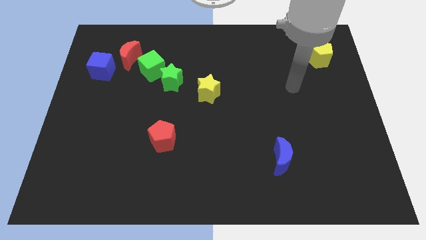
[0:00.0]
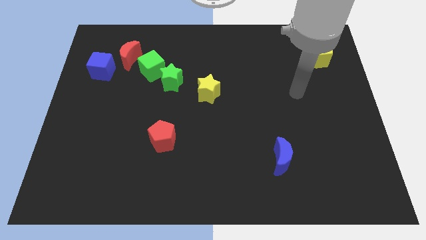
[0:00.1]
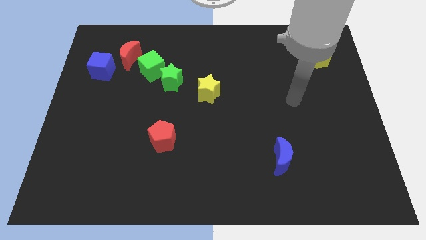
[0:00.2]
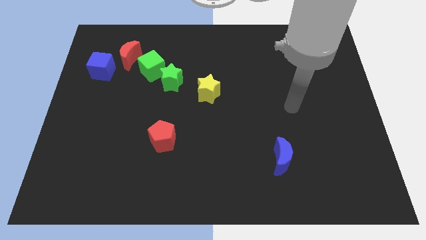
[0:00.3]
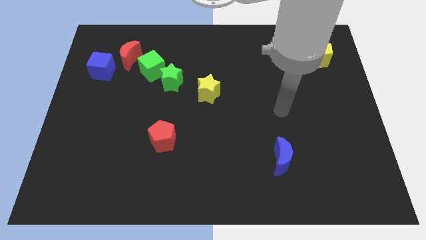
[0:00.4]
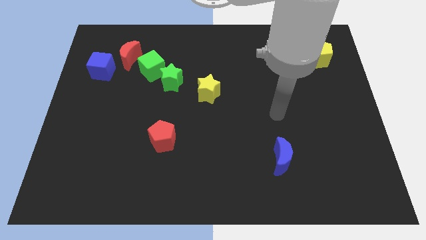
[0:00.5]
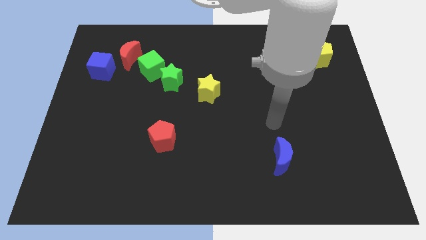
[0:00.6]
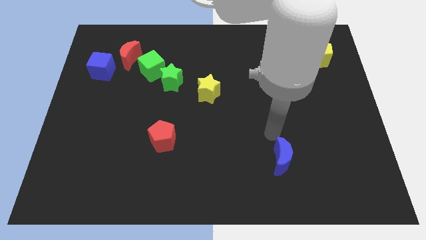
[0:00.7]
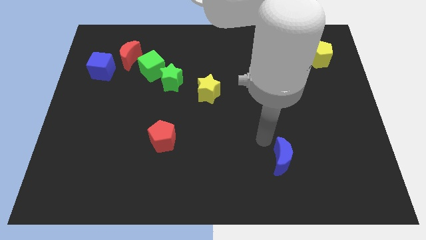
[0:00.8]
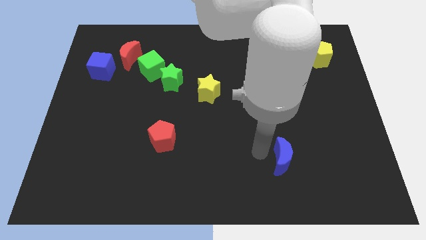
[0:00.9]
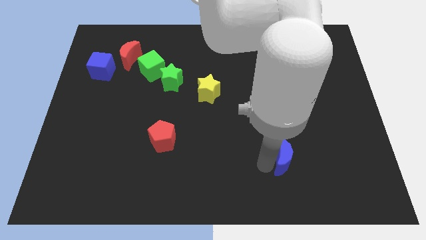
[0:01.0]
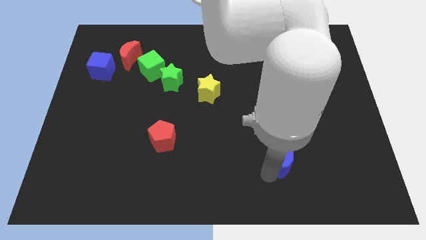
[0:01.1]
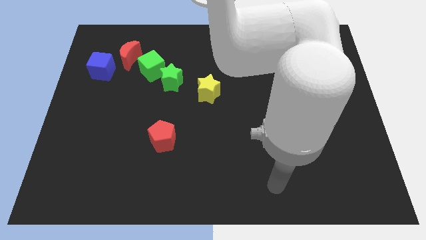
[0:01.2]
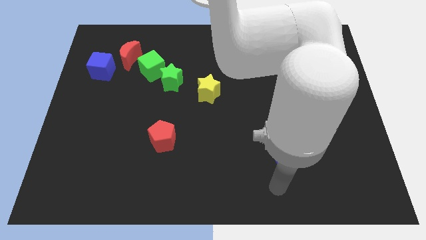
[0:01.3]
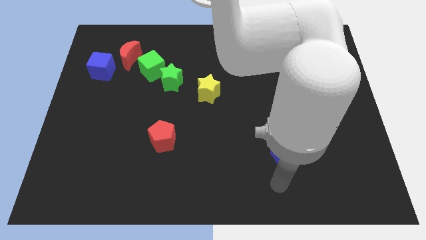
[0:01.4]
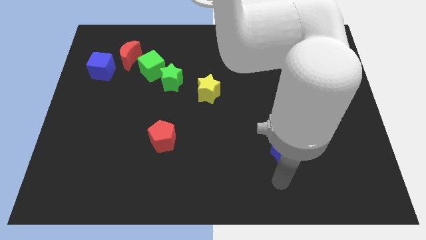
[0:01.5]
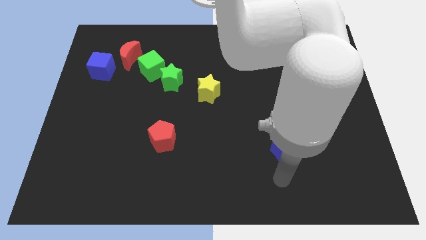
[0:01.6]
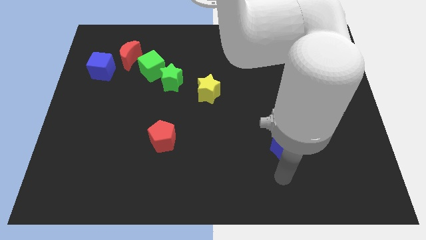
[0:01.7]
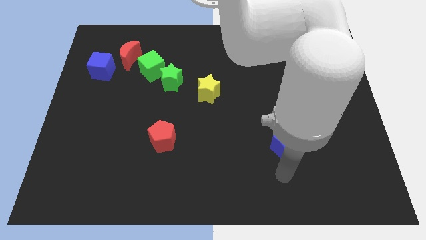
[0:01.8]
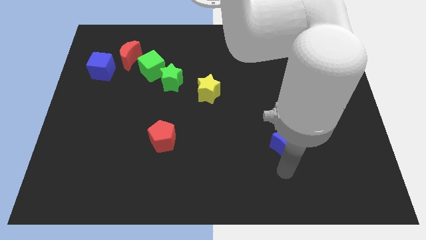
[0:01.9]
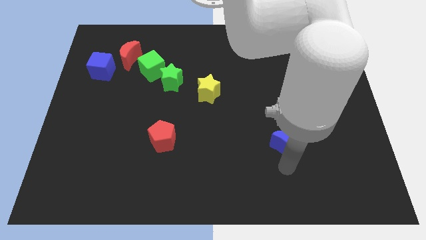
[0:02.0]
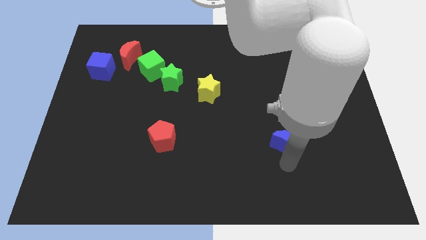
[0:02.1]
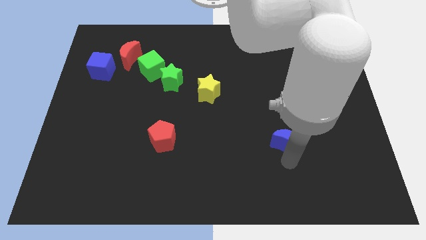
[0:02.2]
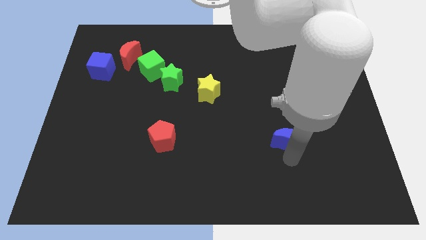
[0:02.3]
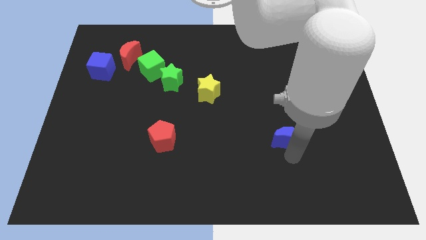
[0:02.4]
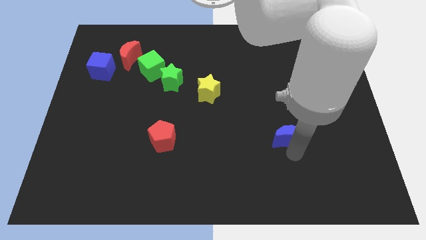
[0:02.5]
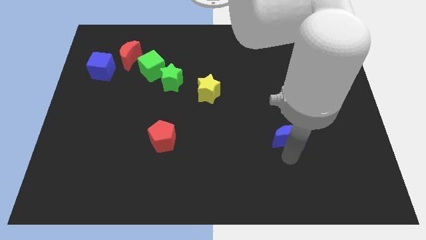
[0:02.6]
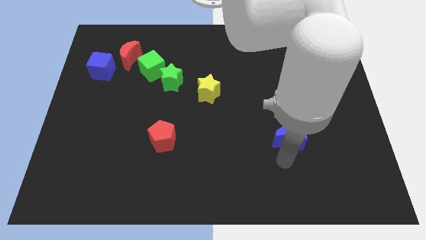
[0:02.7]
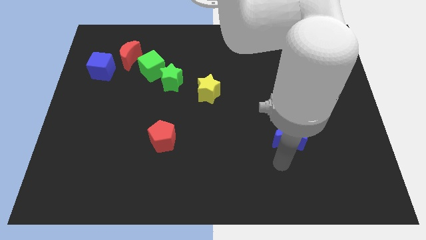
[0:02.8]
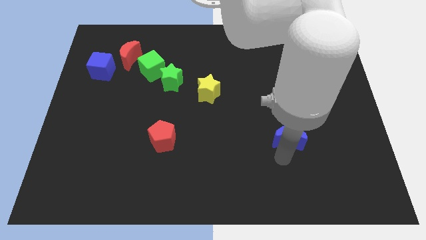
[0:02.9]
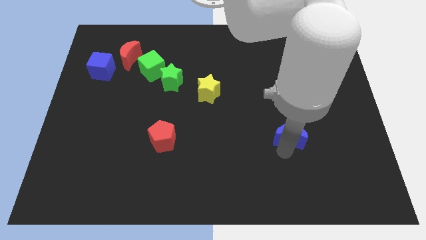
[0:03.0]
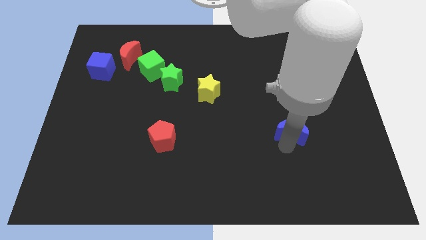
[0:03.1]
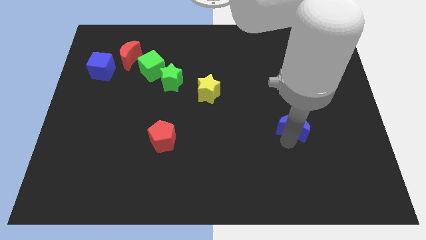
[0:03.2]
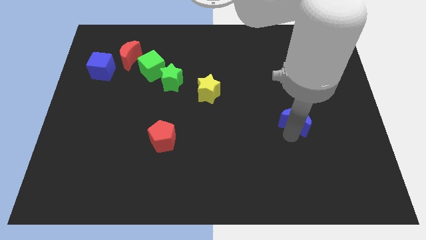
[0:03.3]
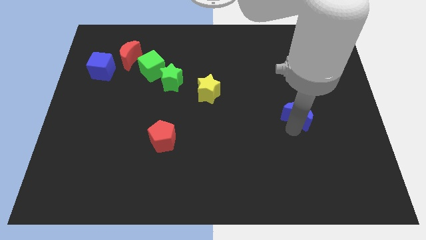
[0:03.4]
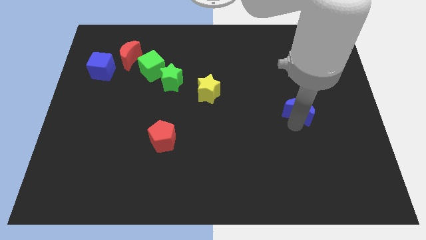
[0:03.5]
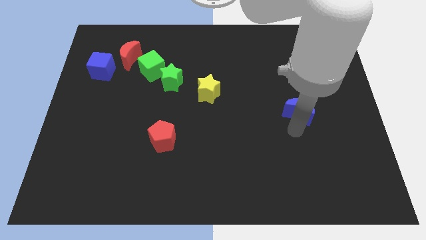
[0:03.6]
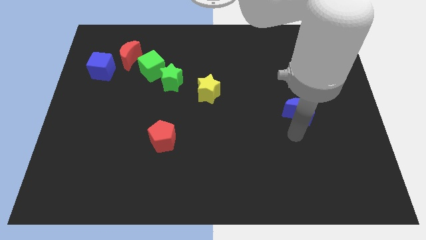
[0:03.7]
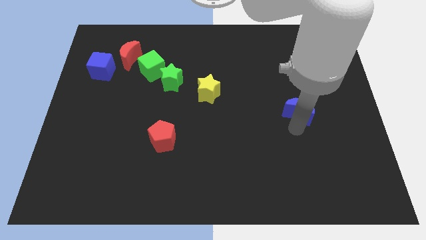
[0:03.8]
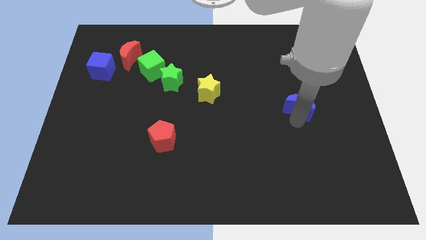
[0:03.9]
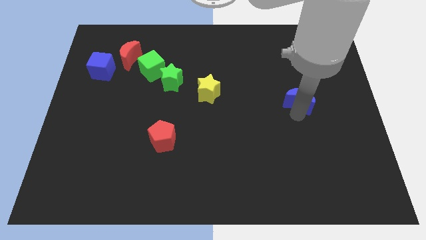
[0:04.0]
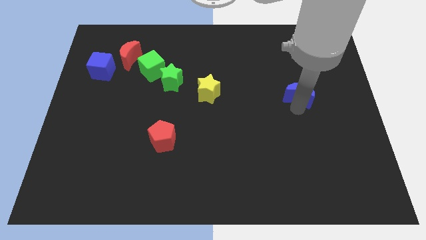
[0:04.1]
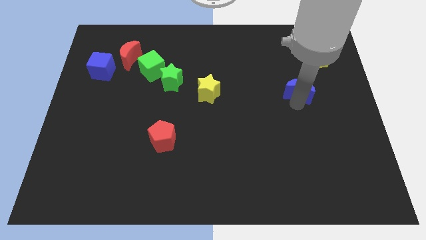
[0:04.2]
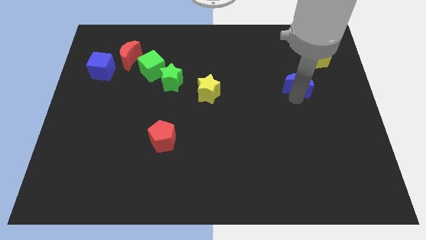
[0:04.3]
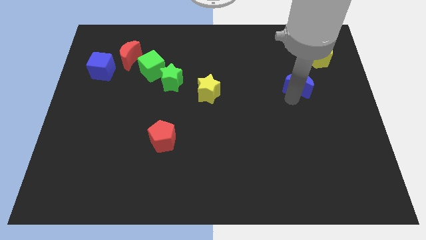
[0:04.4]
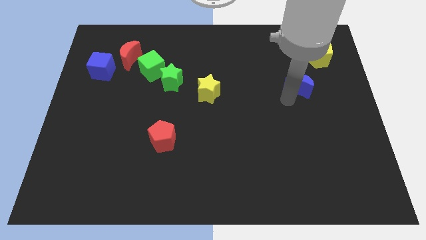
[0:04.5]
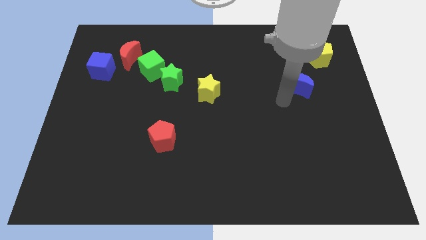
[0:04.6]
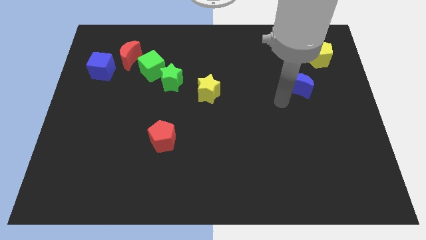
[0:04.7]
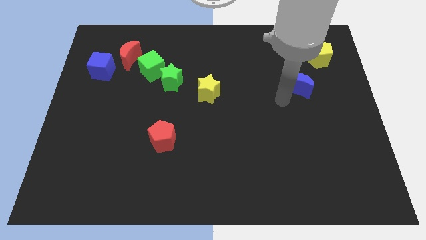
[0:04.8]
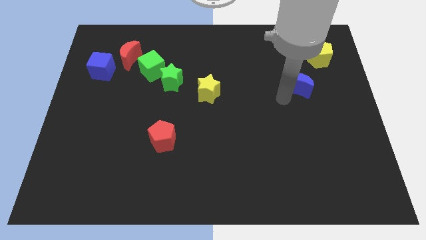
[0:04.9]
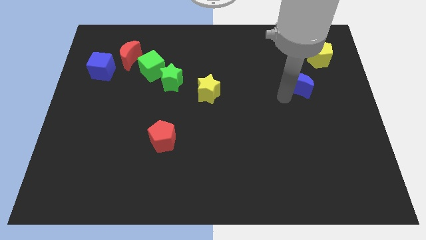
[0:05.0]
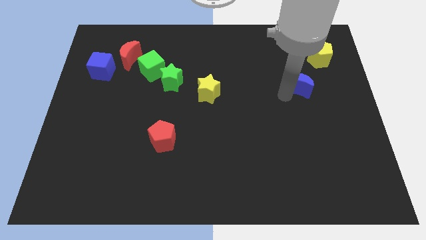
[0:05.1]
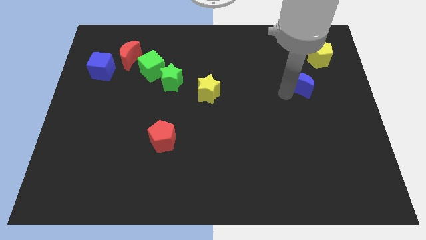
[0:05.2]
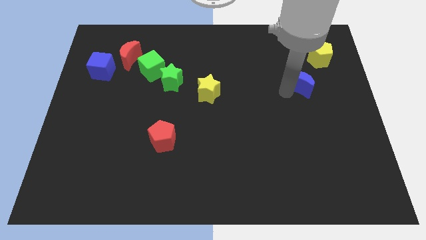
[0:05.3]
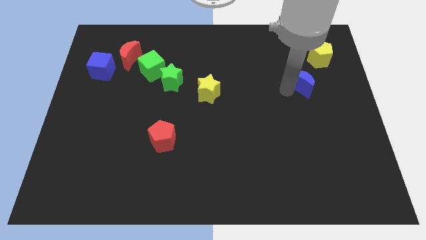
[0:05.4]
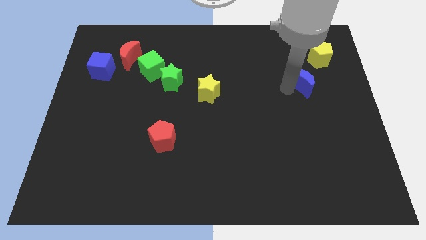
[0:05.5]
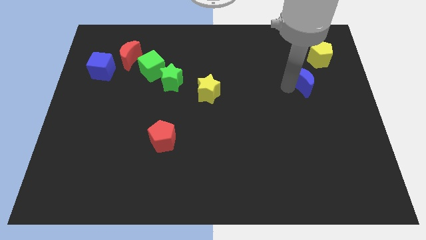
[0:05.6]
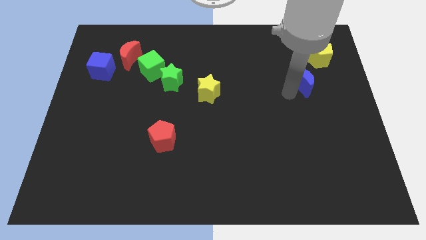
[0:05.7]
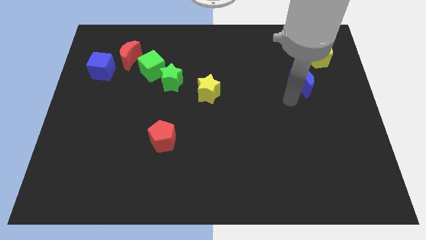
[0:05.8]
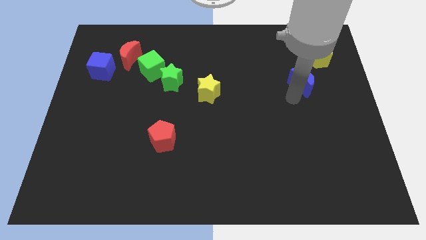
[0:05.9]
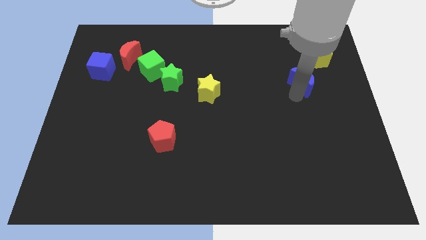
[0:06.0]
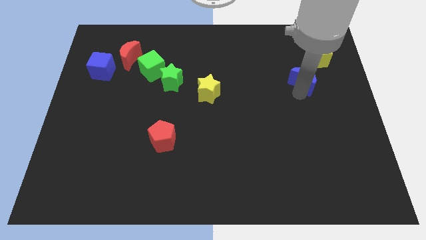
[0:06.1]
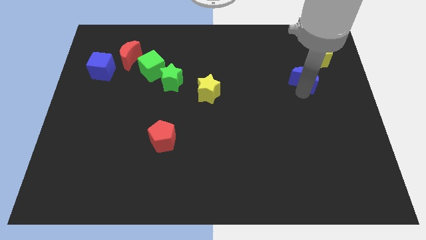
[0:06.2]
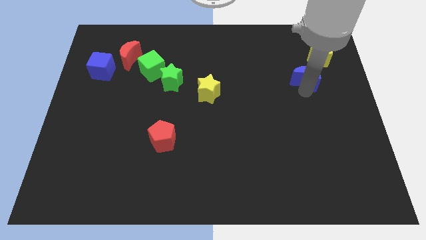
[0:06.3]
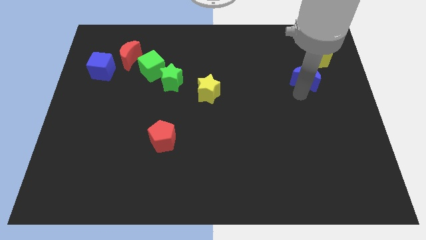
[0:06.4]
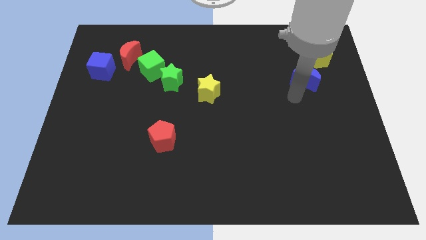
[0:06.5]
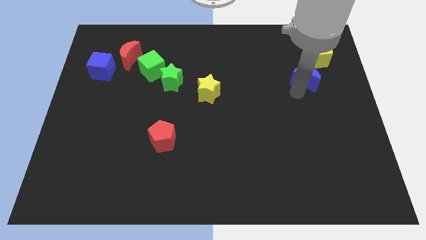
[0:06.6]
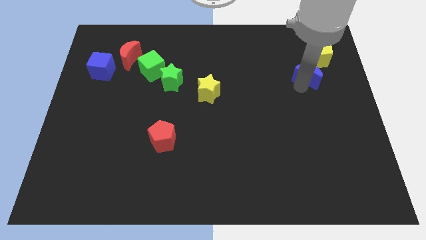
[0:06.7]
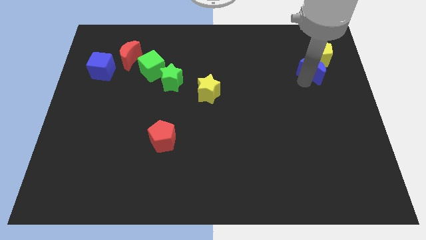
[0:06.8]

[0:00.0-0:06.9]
move the blue moon next to the yellow pentagon
